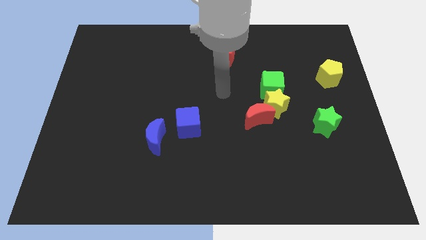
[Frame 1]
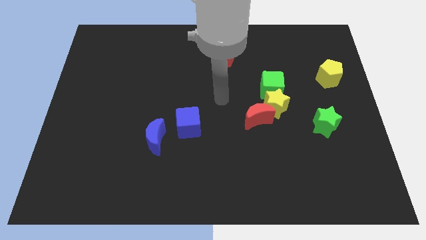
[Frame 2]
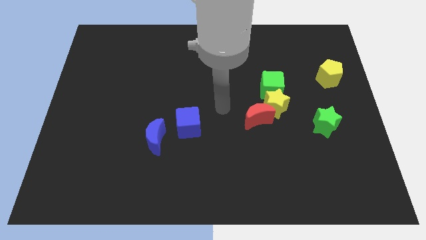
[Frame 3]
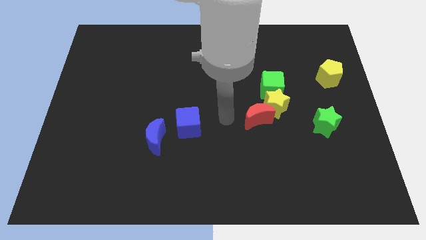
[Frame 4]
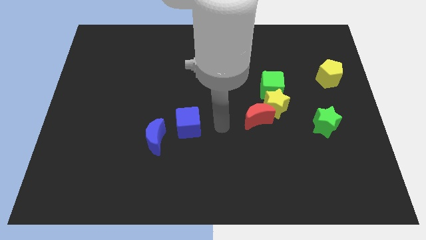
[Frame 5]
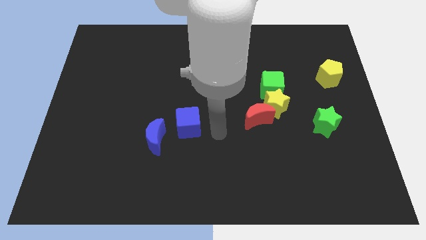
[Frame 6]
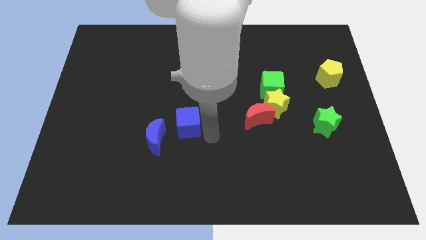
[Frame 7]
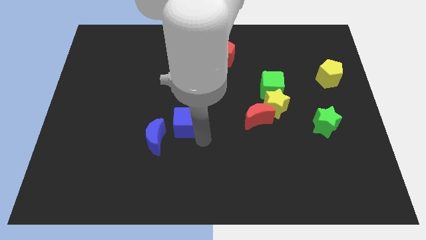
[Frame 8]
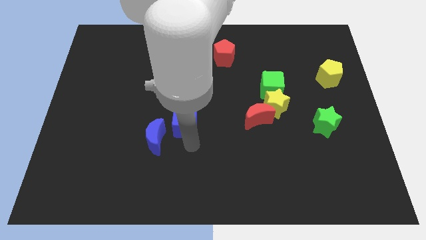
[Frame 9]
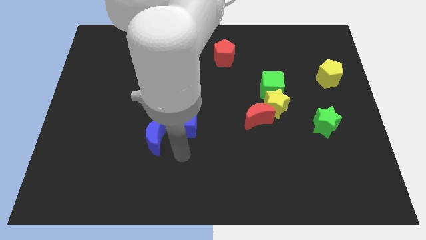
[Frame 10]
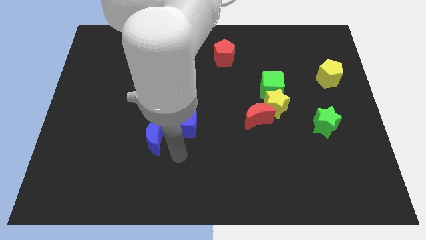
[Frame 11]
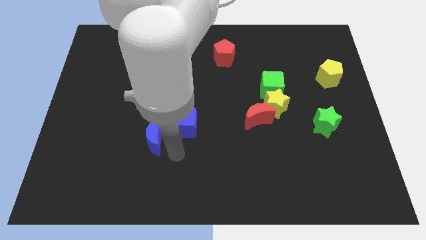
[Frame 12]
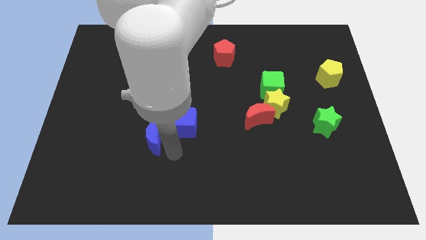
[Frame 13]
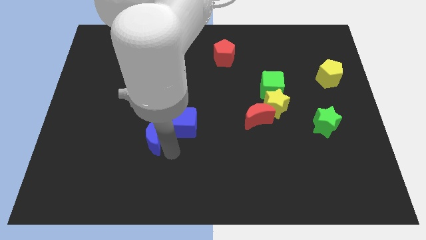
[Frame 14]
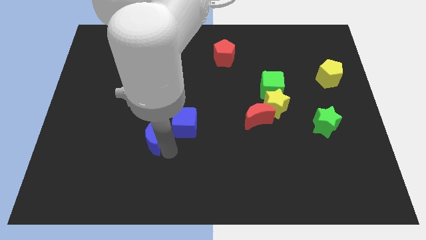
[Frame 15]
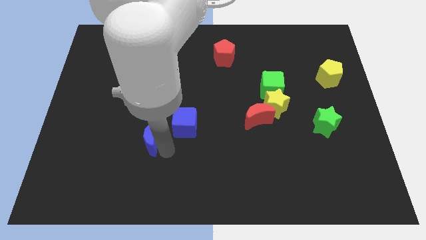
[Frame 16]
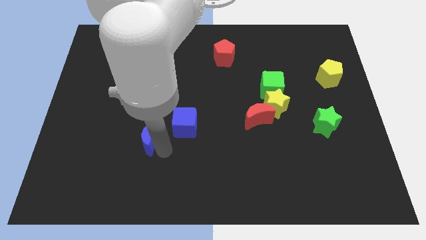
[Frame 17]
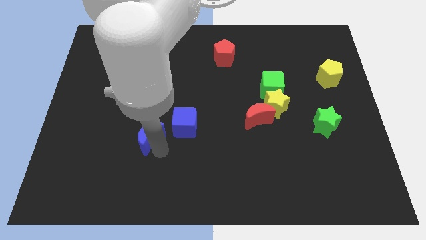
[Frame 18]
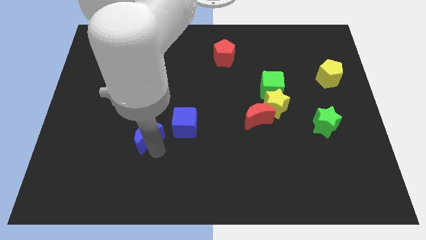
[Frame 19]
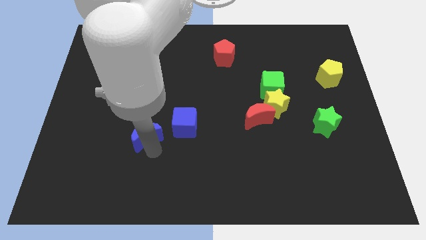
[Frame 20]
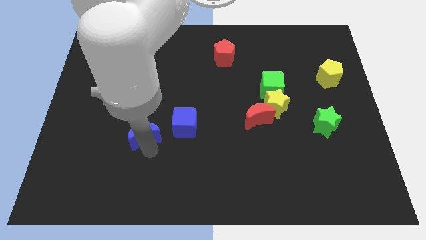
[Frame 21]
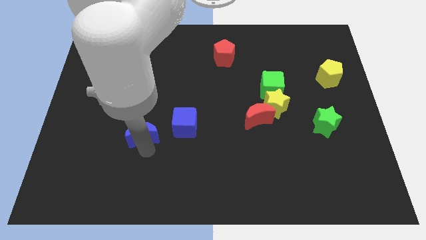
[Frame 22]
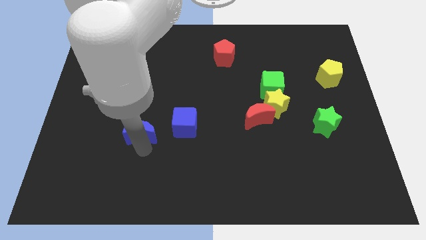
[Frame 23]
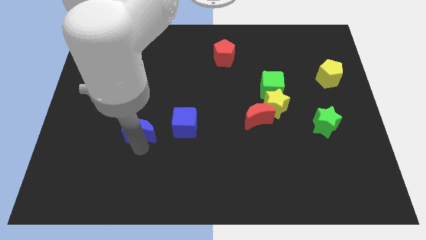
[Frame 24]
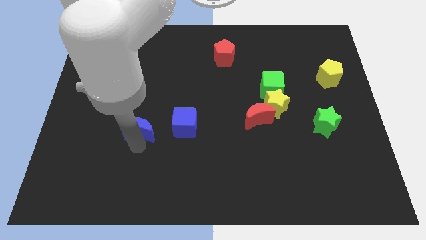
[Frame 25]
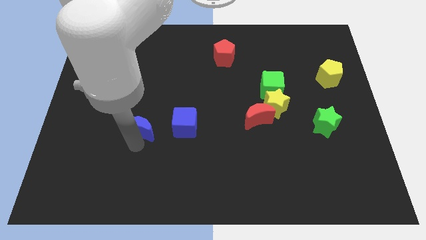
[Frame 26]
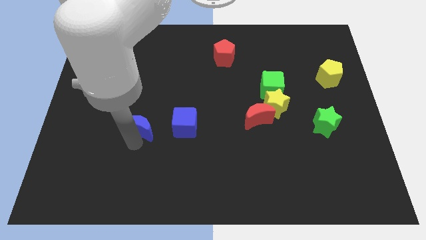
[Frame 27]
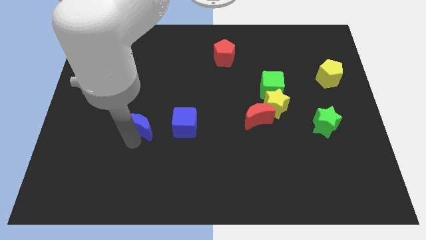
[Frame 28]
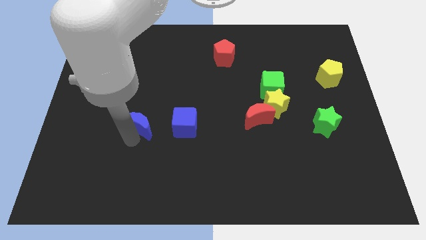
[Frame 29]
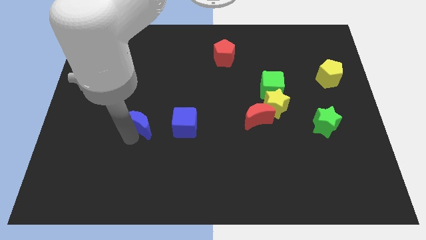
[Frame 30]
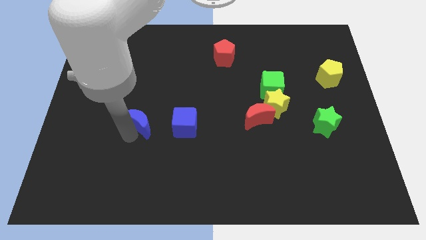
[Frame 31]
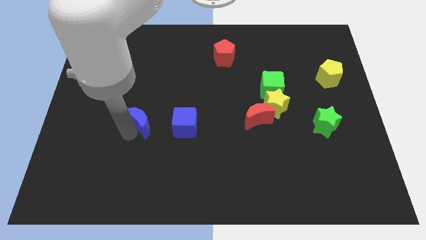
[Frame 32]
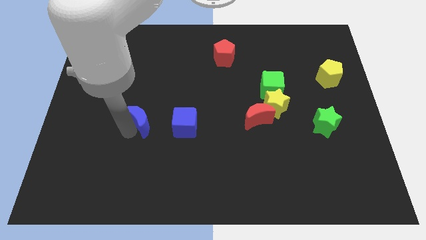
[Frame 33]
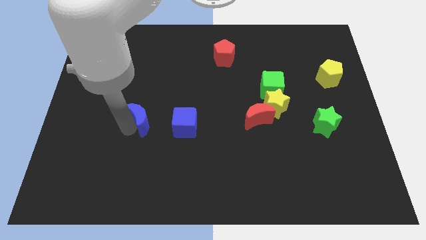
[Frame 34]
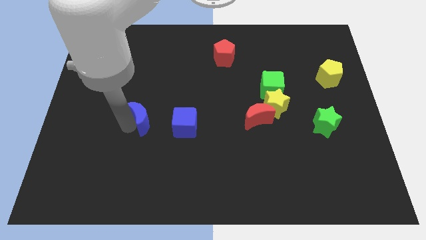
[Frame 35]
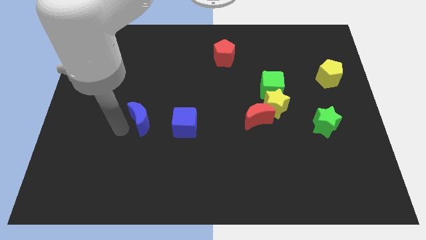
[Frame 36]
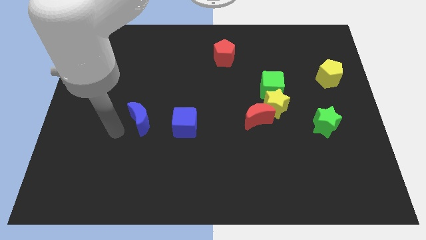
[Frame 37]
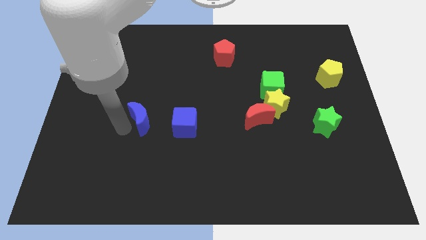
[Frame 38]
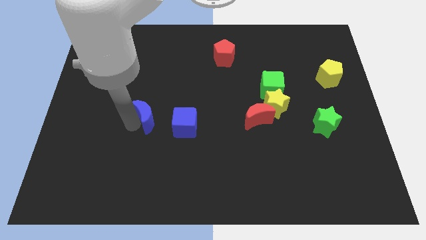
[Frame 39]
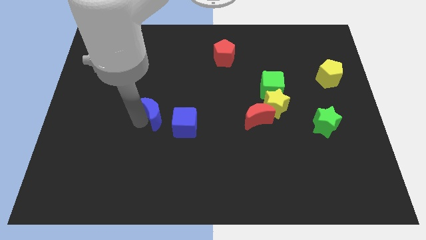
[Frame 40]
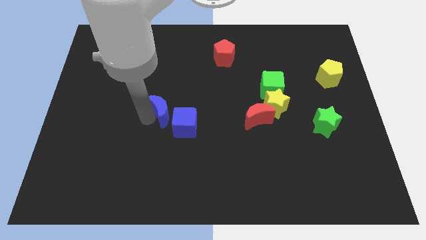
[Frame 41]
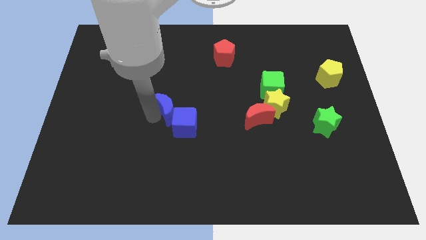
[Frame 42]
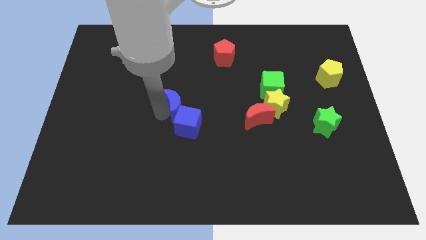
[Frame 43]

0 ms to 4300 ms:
move the blue moon upwards and then right somewhat

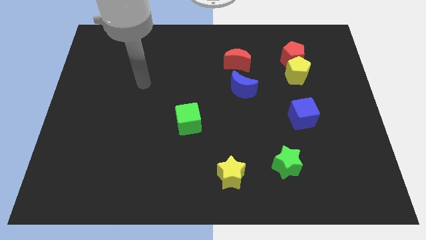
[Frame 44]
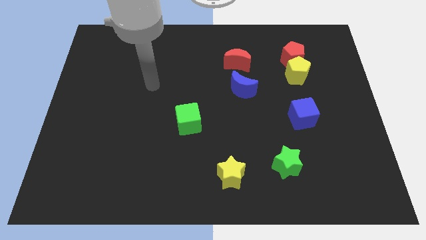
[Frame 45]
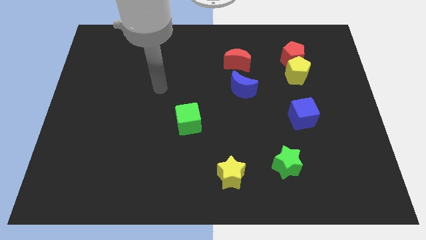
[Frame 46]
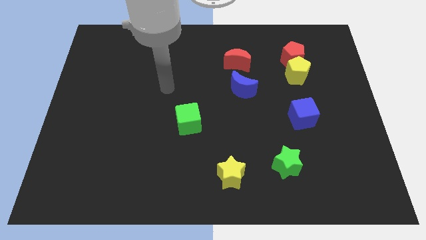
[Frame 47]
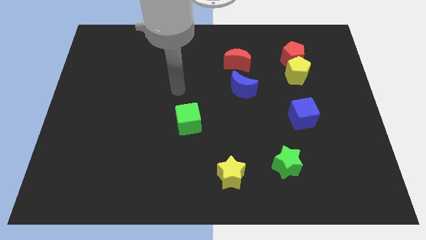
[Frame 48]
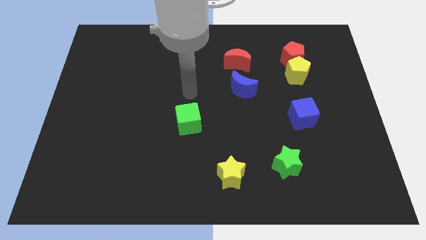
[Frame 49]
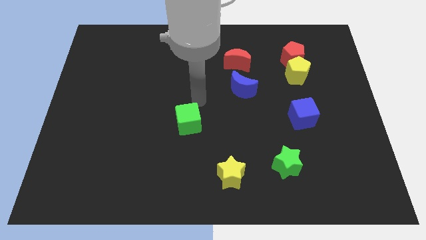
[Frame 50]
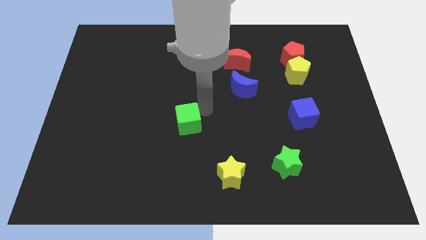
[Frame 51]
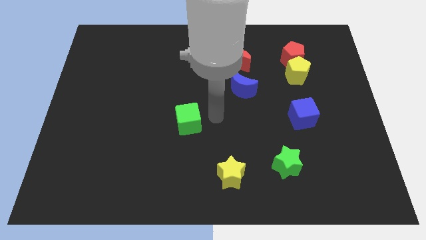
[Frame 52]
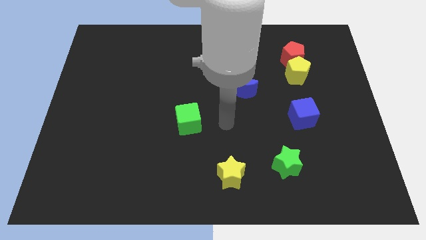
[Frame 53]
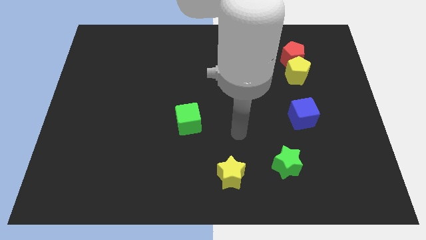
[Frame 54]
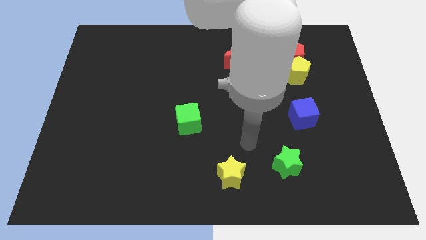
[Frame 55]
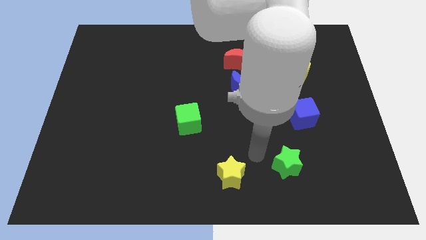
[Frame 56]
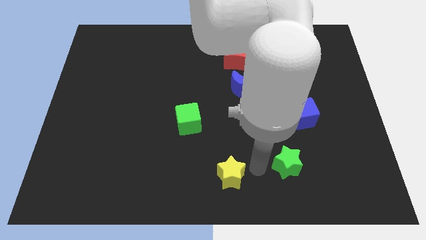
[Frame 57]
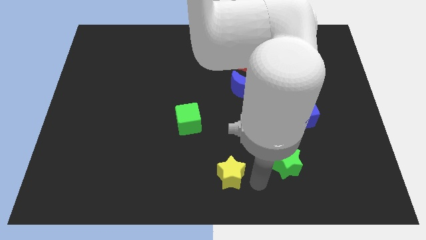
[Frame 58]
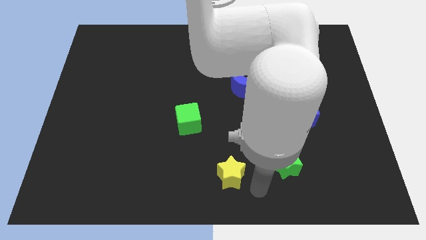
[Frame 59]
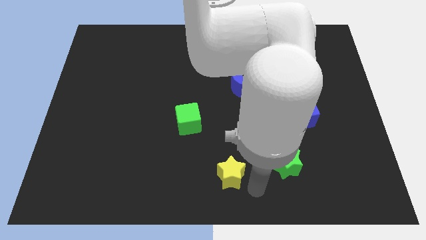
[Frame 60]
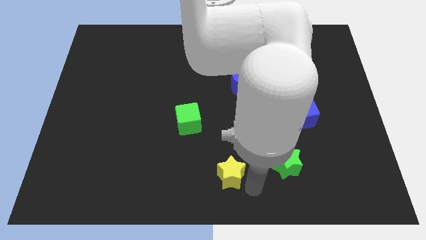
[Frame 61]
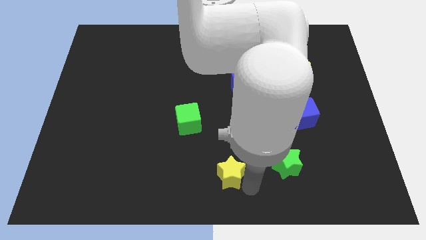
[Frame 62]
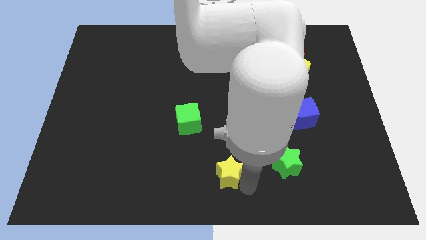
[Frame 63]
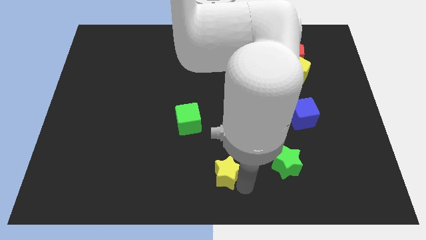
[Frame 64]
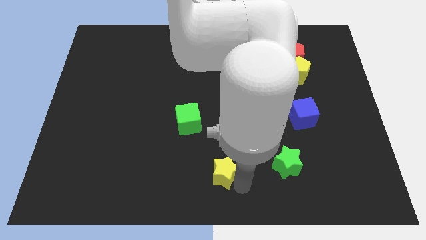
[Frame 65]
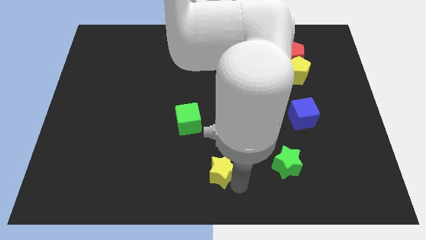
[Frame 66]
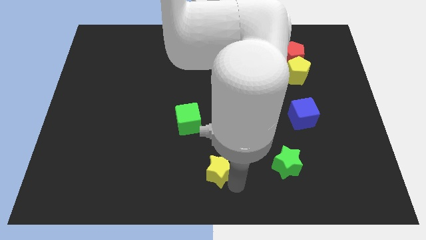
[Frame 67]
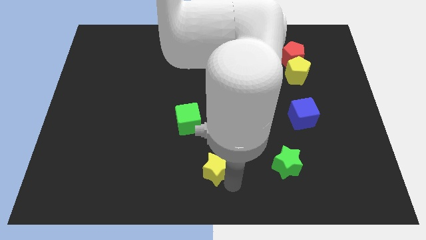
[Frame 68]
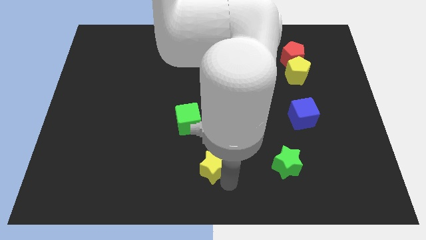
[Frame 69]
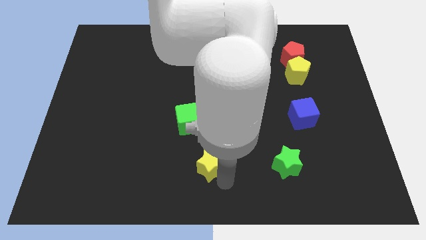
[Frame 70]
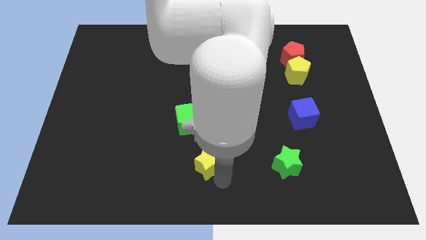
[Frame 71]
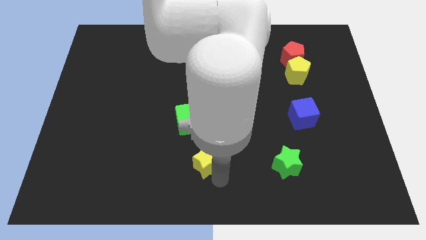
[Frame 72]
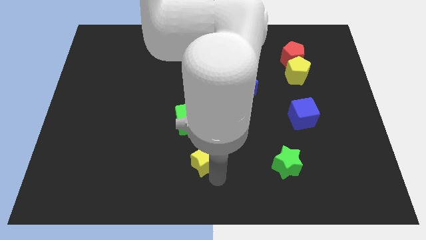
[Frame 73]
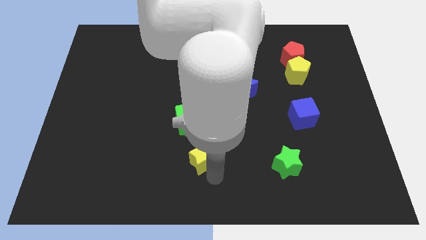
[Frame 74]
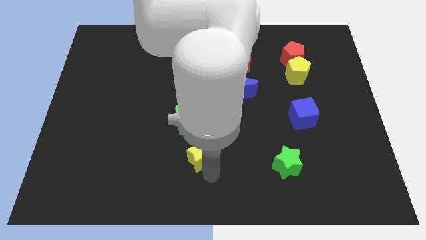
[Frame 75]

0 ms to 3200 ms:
slightly push the yellow star up and left diagonally

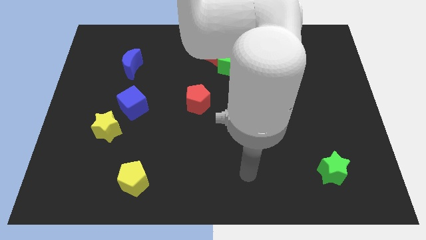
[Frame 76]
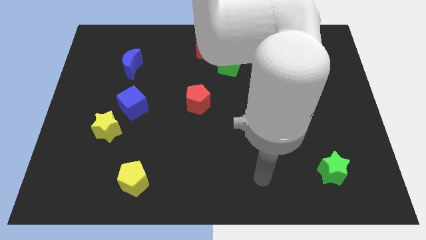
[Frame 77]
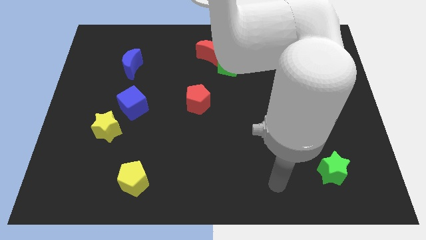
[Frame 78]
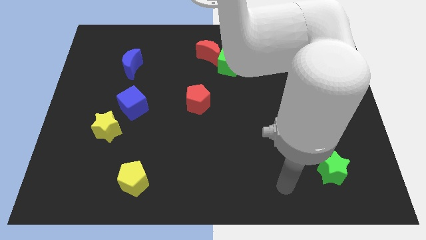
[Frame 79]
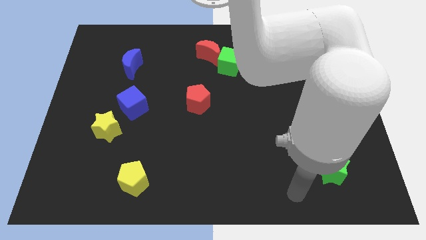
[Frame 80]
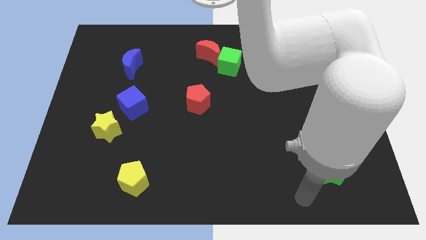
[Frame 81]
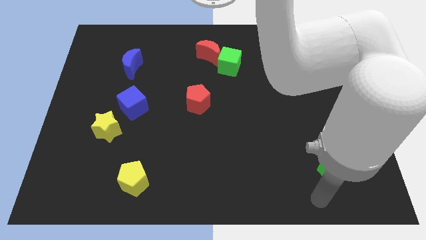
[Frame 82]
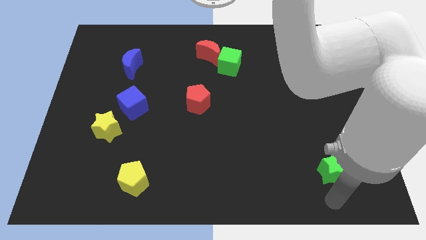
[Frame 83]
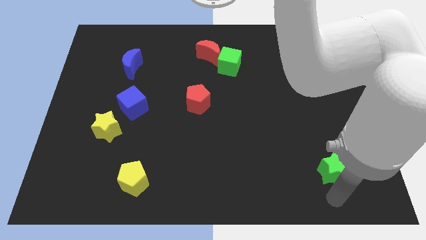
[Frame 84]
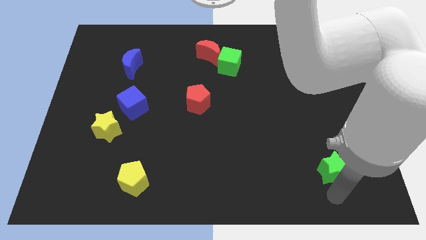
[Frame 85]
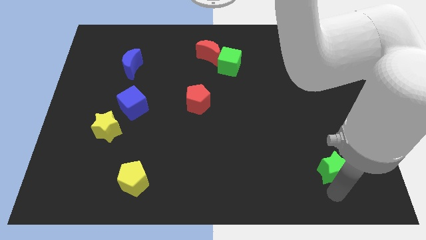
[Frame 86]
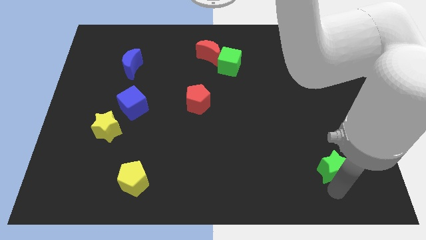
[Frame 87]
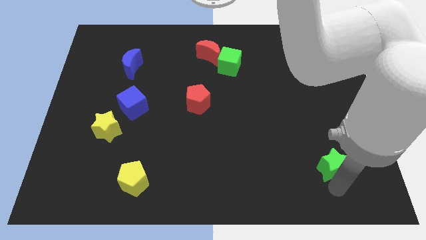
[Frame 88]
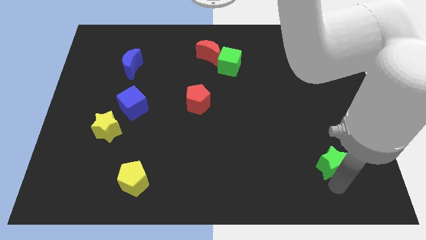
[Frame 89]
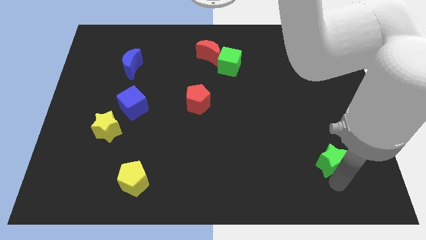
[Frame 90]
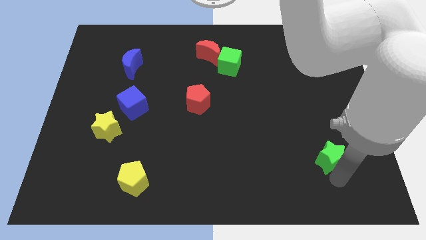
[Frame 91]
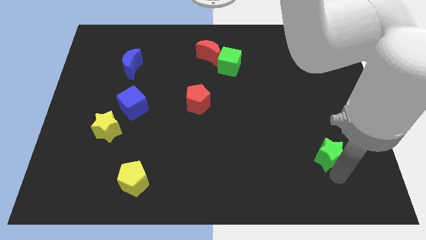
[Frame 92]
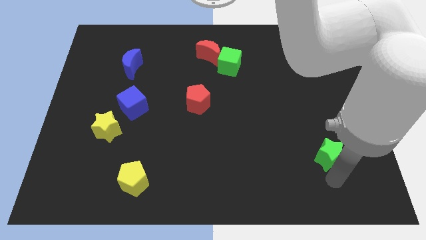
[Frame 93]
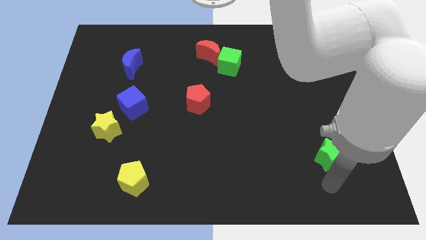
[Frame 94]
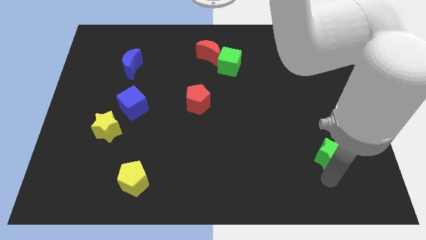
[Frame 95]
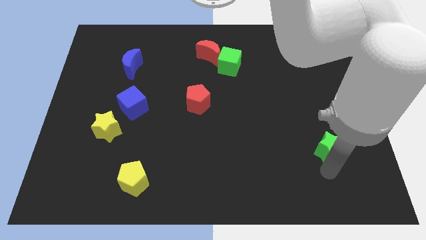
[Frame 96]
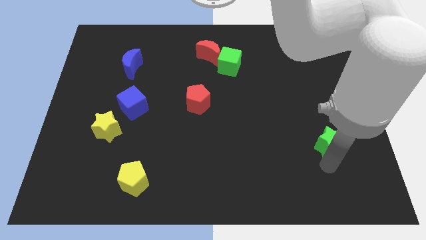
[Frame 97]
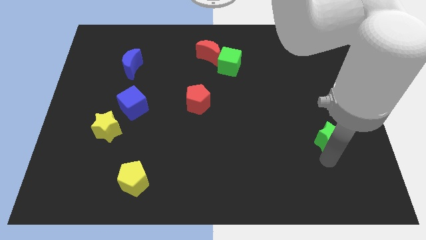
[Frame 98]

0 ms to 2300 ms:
push the green star up a little
